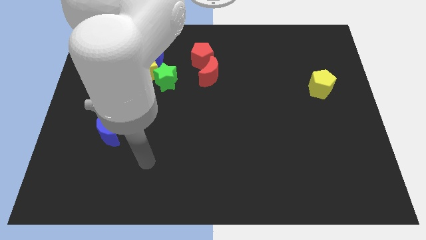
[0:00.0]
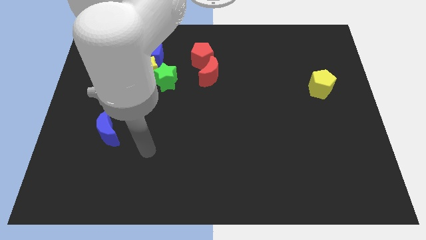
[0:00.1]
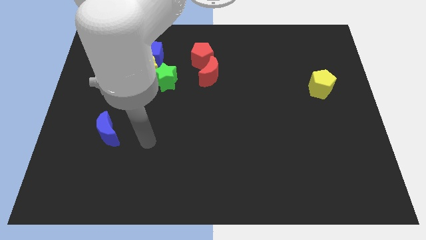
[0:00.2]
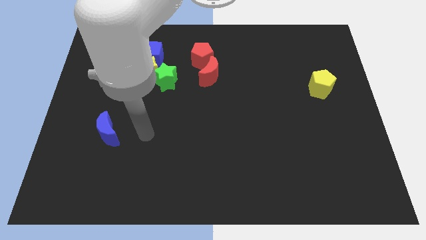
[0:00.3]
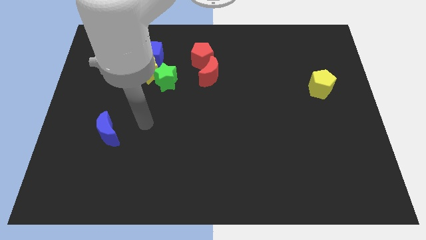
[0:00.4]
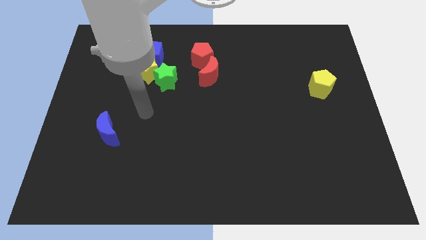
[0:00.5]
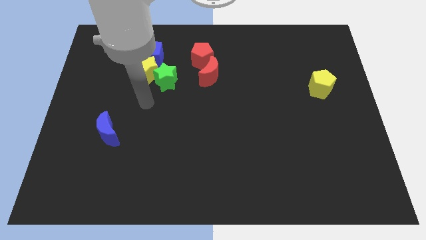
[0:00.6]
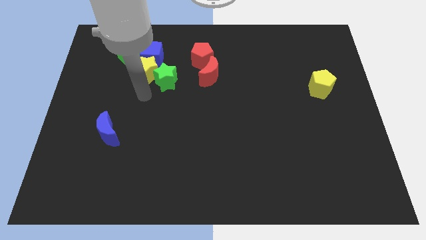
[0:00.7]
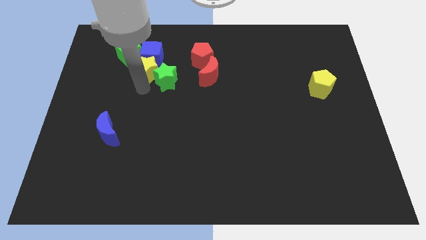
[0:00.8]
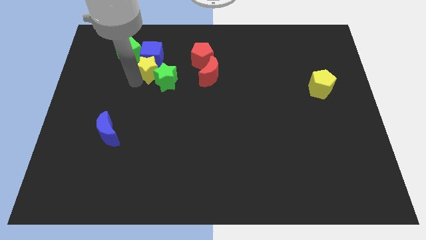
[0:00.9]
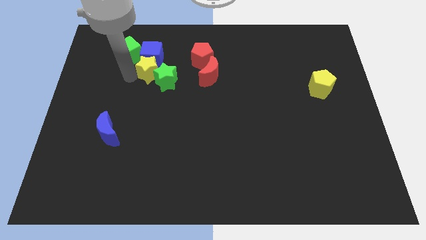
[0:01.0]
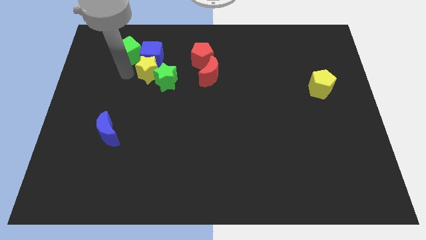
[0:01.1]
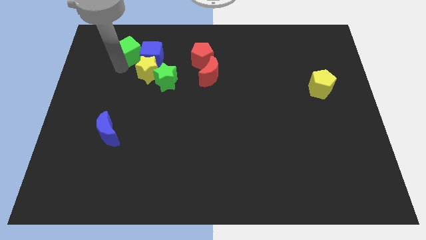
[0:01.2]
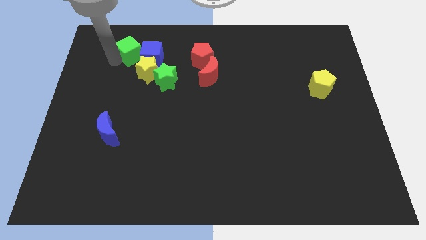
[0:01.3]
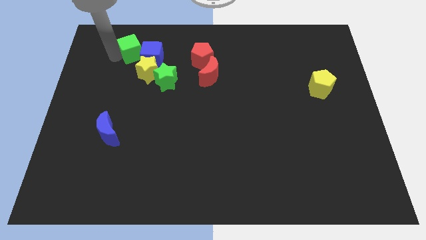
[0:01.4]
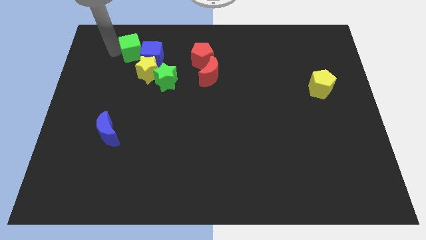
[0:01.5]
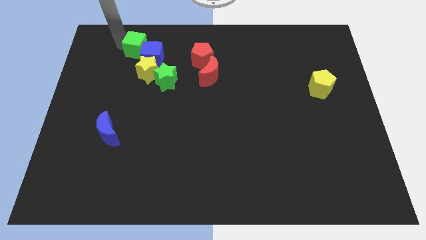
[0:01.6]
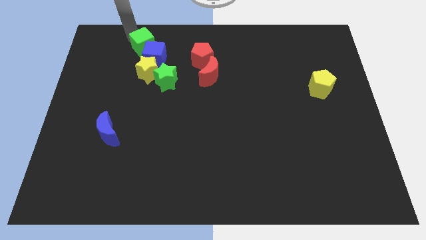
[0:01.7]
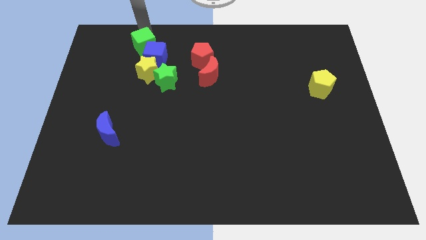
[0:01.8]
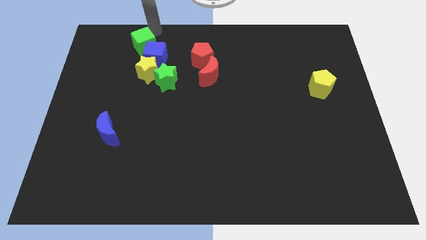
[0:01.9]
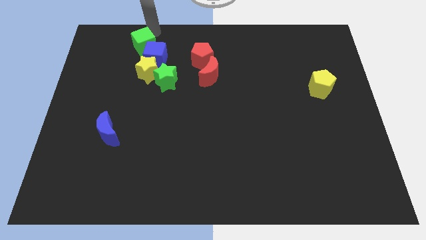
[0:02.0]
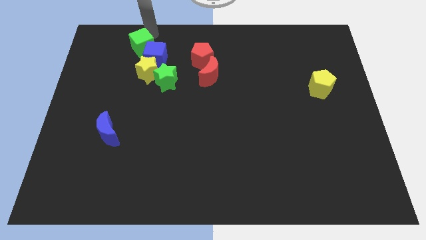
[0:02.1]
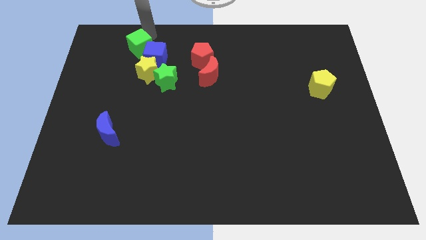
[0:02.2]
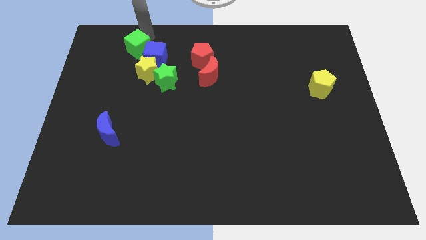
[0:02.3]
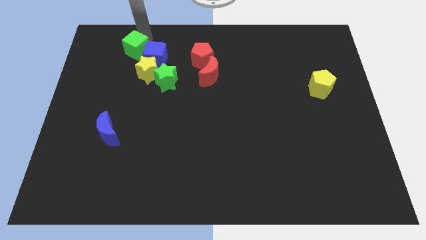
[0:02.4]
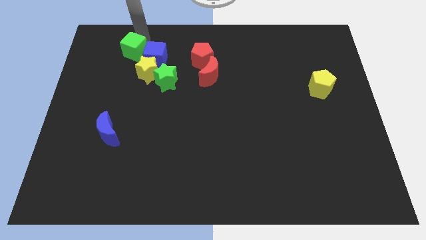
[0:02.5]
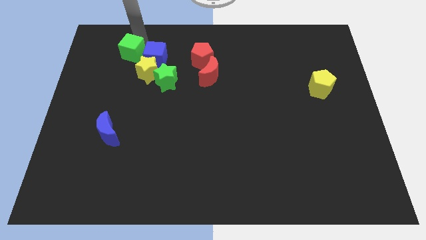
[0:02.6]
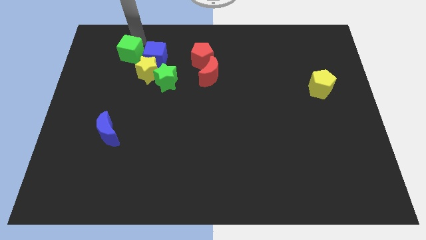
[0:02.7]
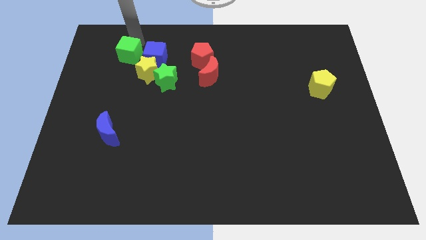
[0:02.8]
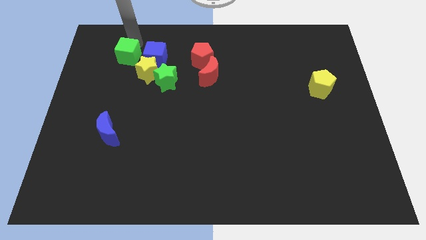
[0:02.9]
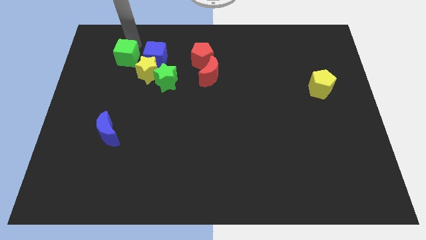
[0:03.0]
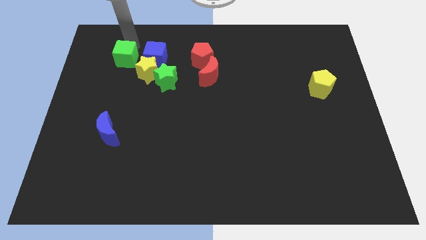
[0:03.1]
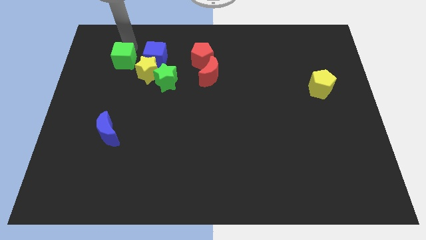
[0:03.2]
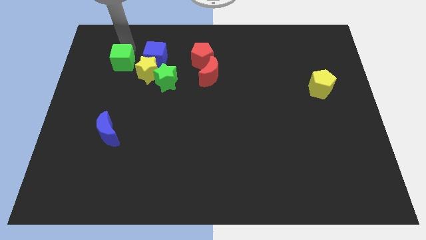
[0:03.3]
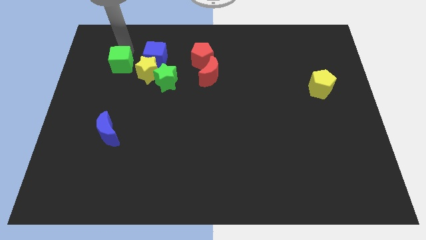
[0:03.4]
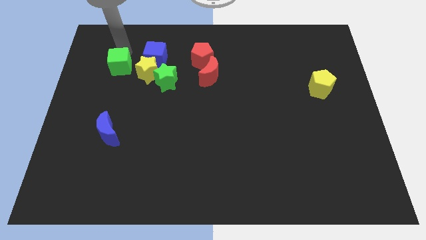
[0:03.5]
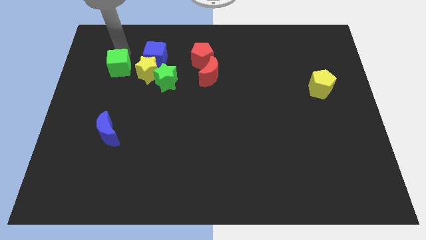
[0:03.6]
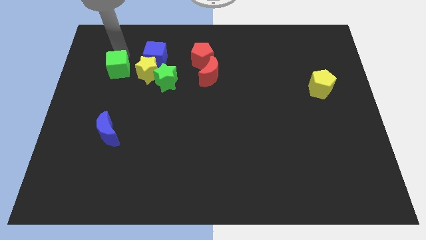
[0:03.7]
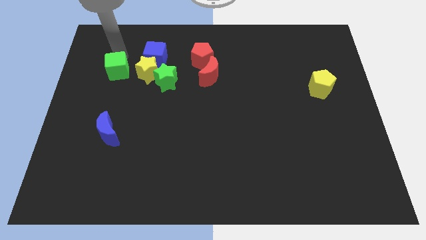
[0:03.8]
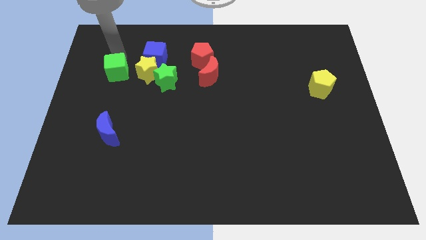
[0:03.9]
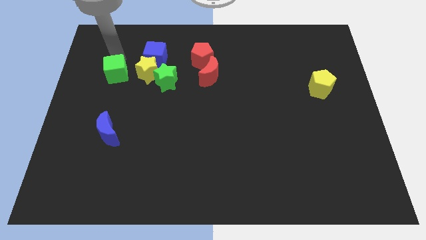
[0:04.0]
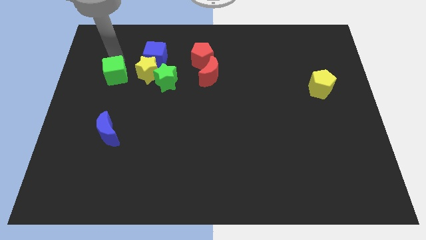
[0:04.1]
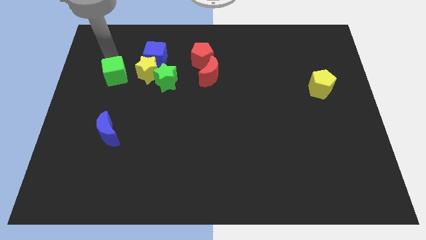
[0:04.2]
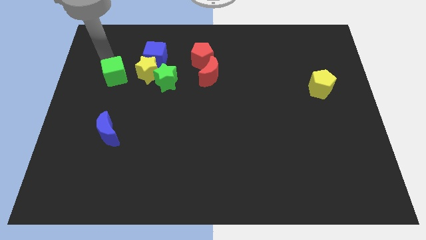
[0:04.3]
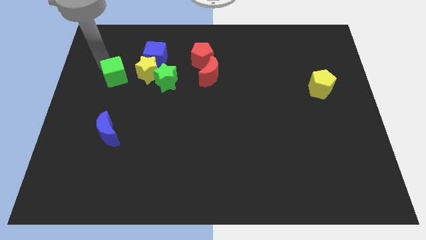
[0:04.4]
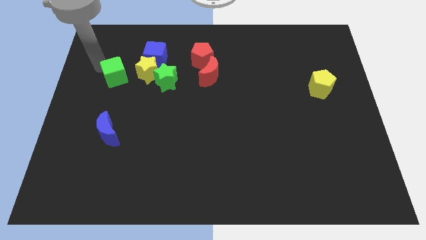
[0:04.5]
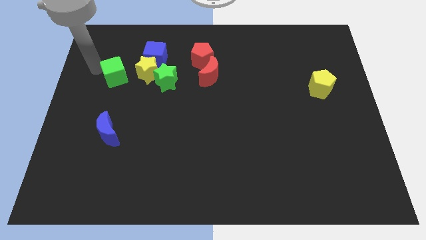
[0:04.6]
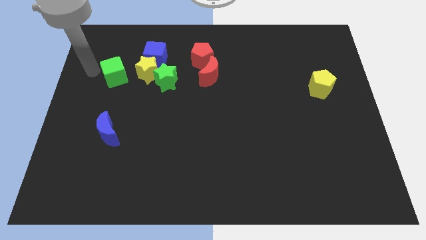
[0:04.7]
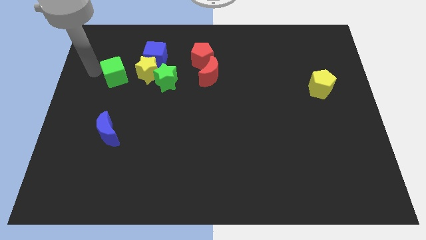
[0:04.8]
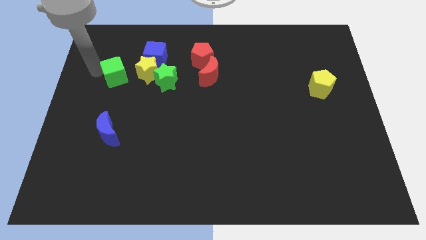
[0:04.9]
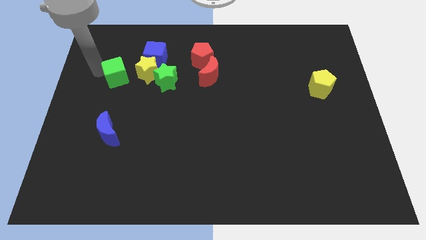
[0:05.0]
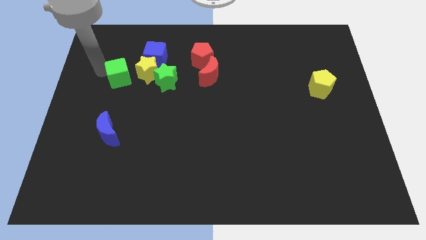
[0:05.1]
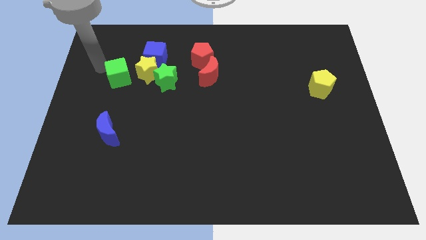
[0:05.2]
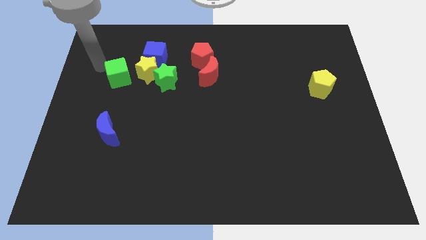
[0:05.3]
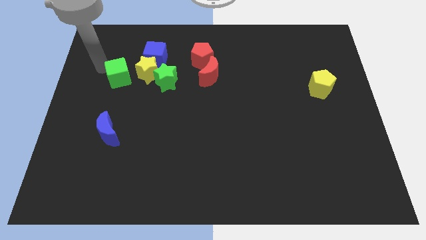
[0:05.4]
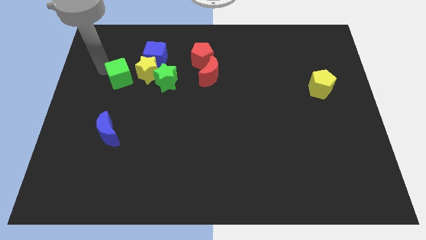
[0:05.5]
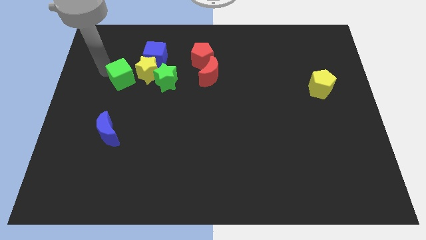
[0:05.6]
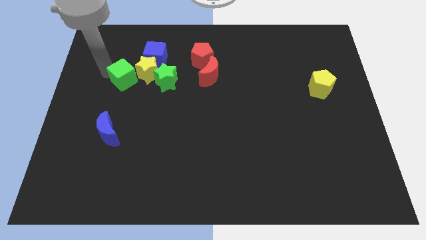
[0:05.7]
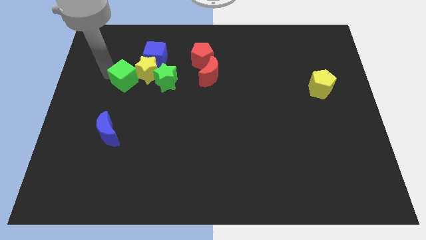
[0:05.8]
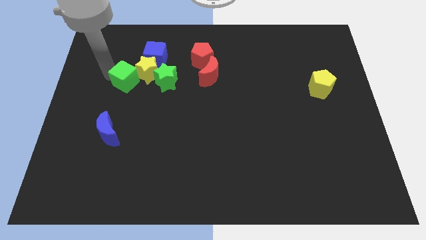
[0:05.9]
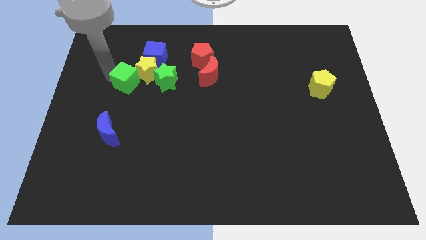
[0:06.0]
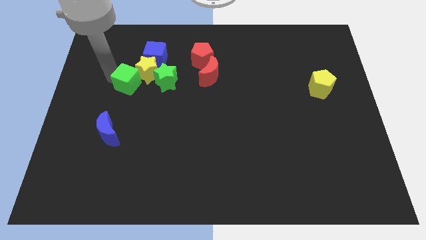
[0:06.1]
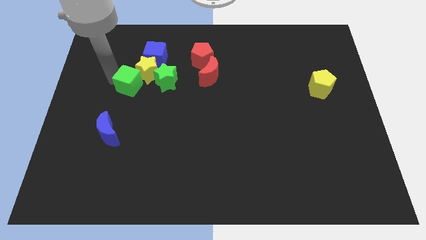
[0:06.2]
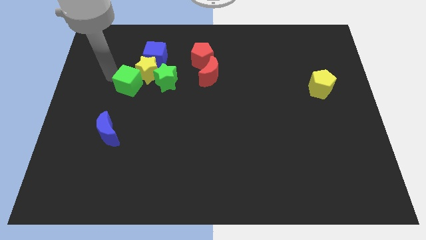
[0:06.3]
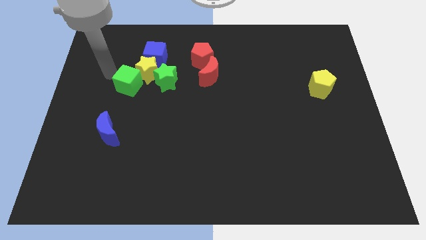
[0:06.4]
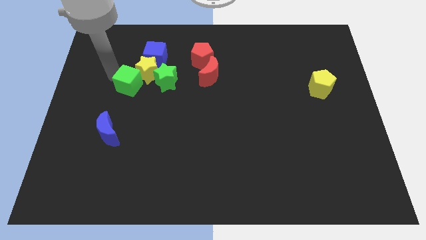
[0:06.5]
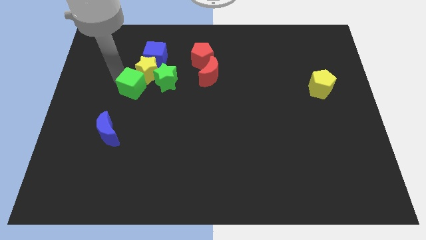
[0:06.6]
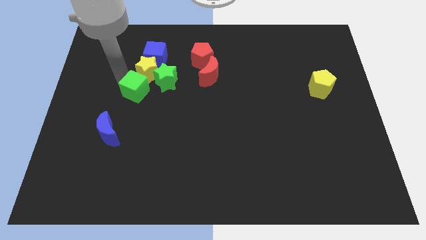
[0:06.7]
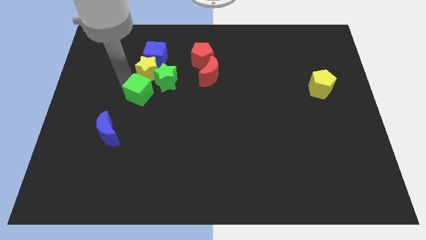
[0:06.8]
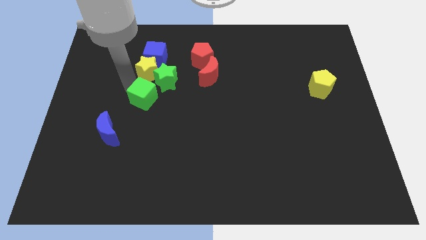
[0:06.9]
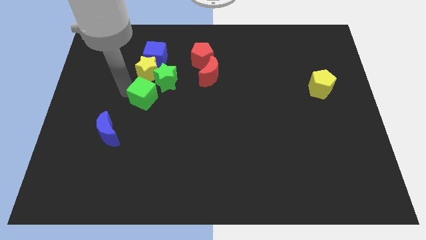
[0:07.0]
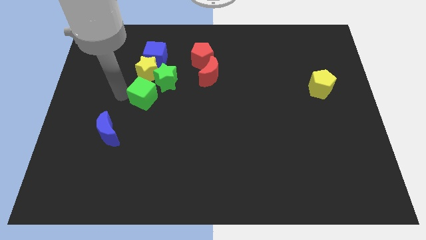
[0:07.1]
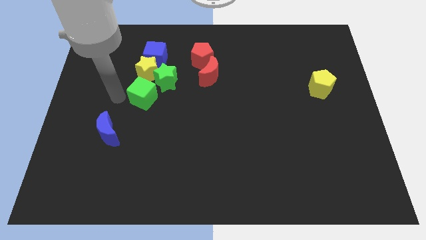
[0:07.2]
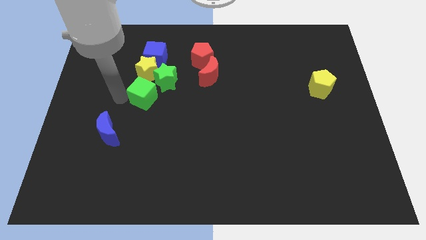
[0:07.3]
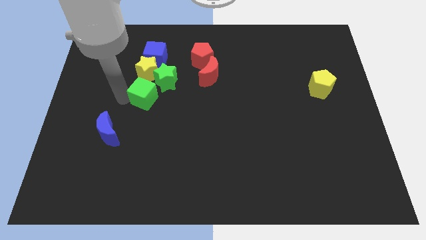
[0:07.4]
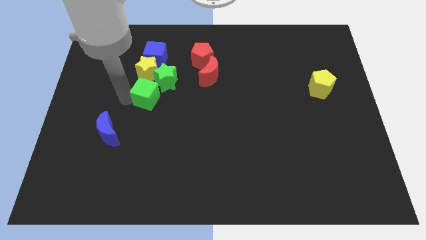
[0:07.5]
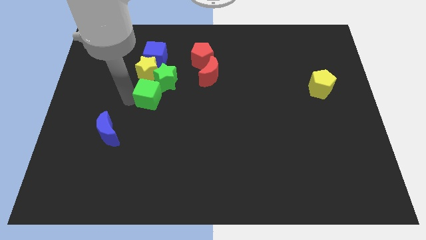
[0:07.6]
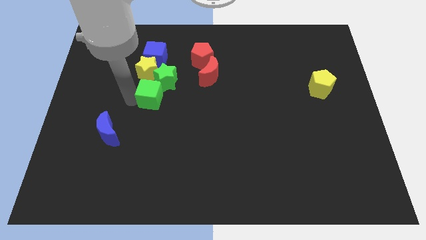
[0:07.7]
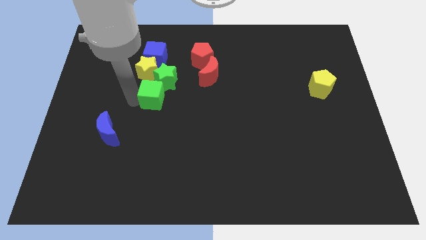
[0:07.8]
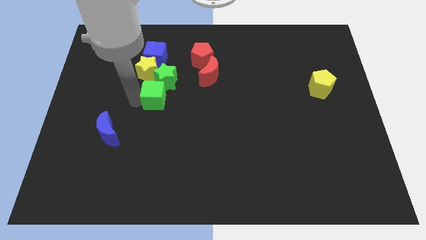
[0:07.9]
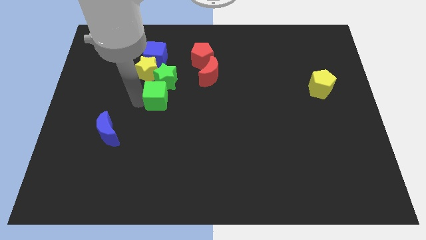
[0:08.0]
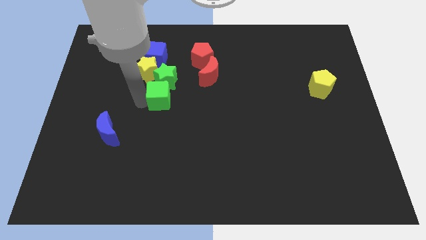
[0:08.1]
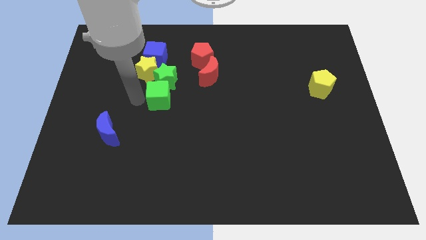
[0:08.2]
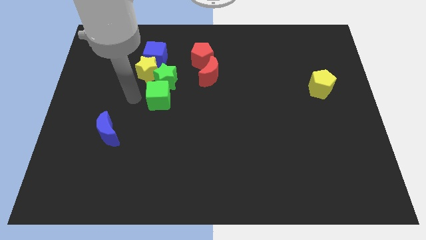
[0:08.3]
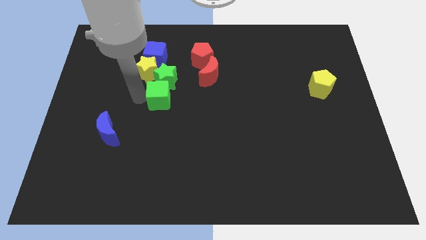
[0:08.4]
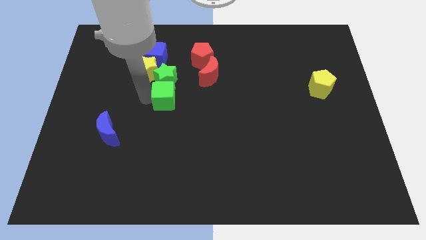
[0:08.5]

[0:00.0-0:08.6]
push the green cube to the center of the board
